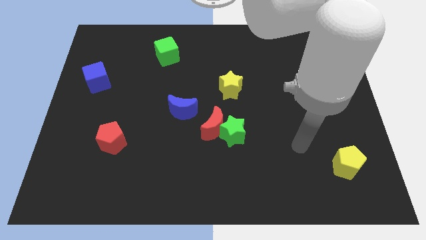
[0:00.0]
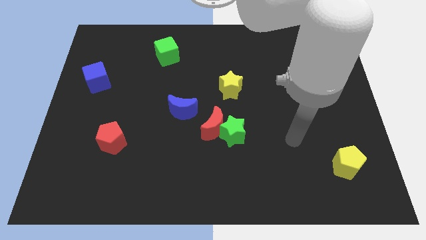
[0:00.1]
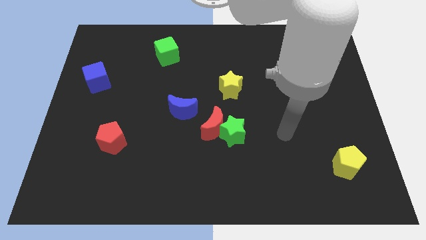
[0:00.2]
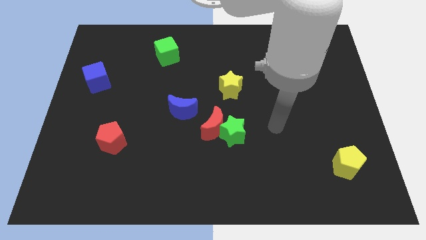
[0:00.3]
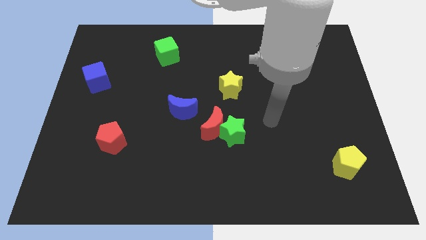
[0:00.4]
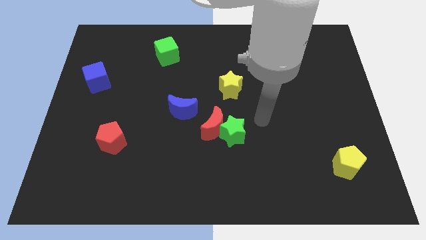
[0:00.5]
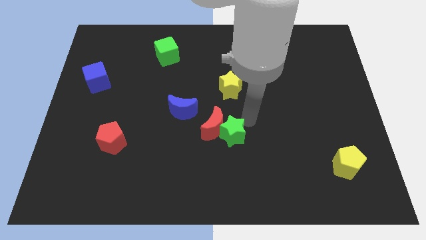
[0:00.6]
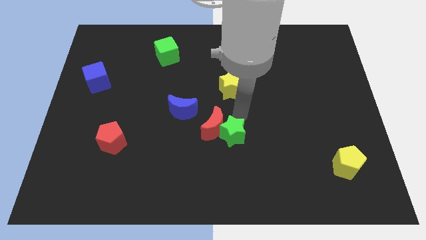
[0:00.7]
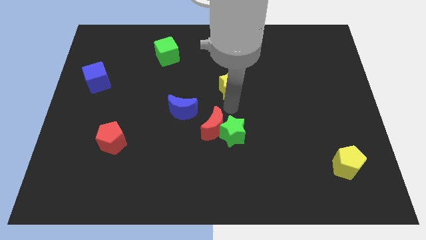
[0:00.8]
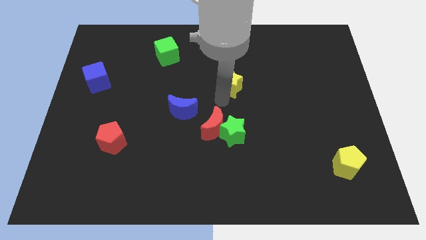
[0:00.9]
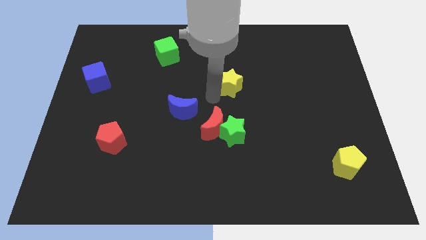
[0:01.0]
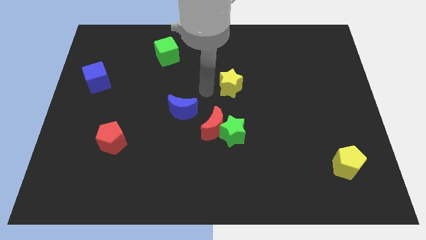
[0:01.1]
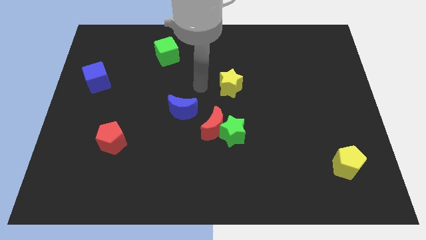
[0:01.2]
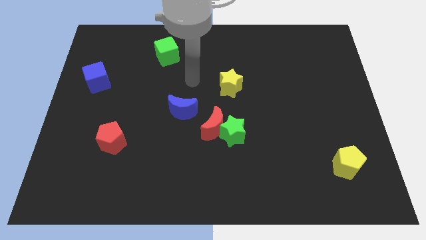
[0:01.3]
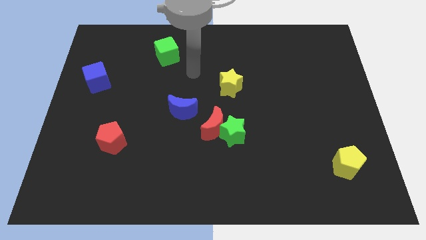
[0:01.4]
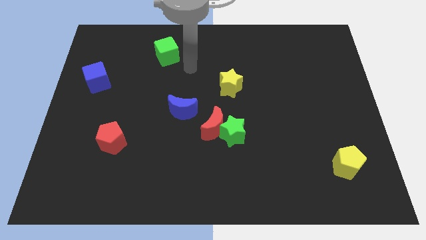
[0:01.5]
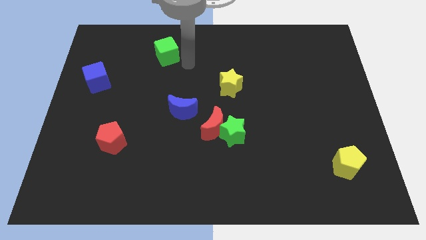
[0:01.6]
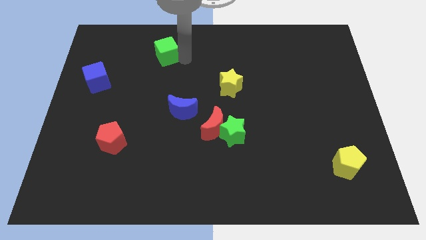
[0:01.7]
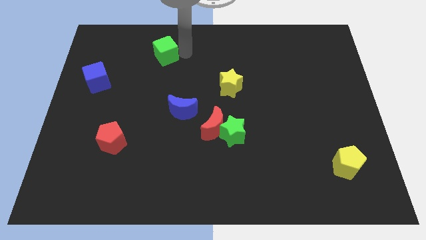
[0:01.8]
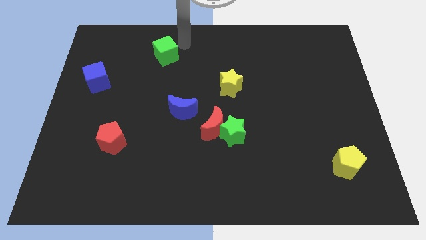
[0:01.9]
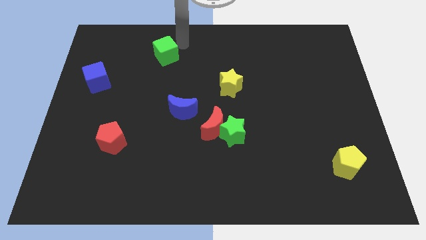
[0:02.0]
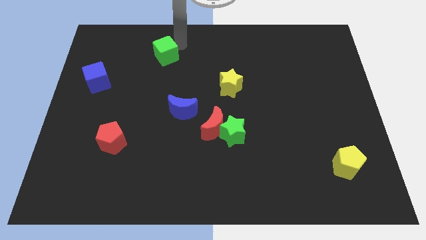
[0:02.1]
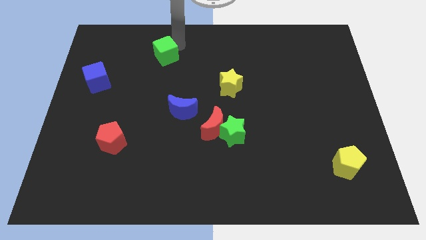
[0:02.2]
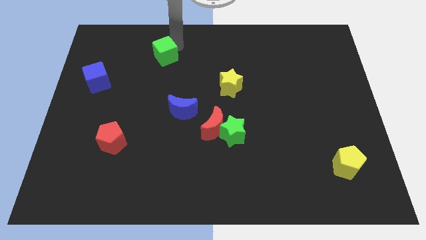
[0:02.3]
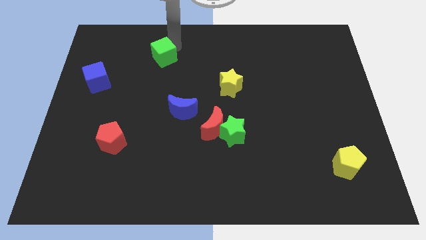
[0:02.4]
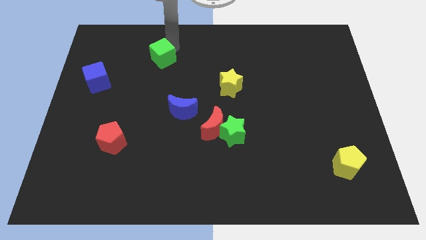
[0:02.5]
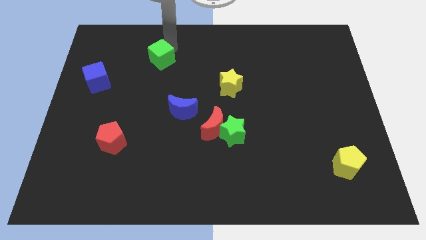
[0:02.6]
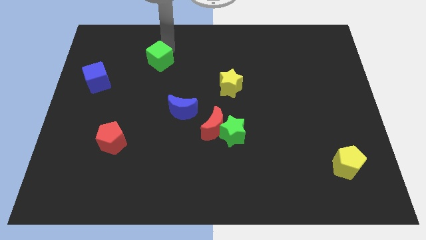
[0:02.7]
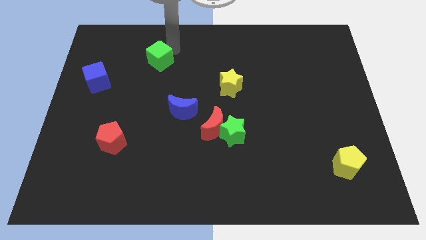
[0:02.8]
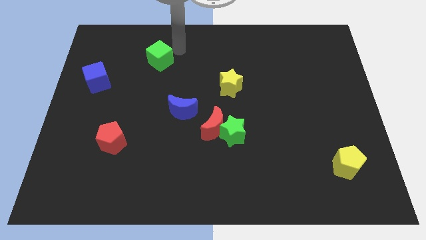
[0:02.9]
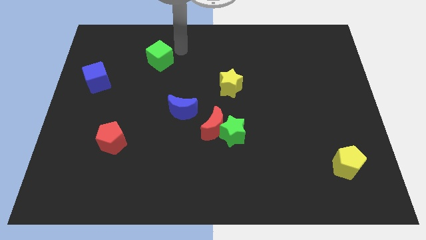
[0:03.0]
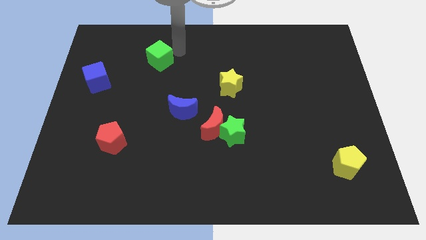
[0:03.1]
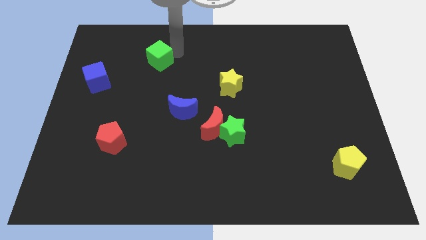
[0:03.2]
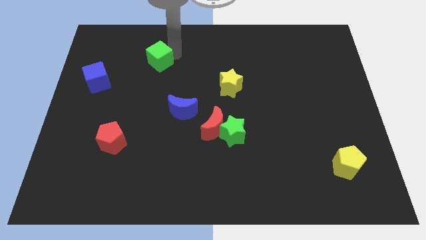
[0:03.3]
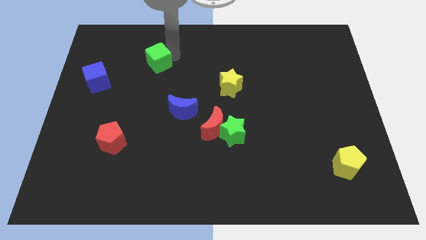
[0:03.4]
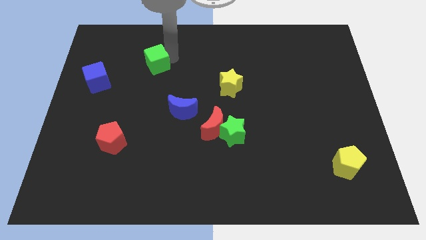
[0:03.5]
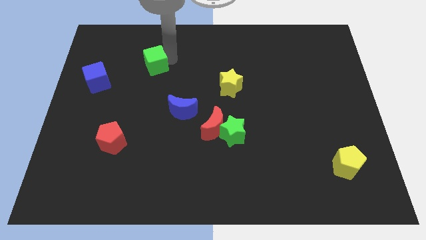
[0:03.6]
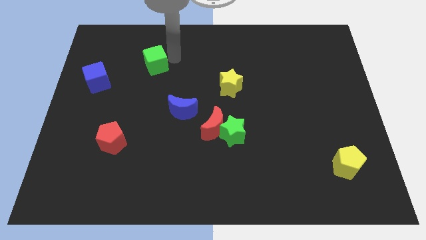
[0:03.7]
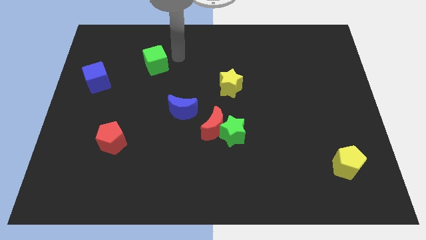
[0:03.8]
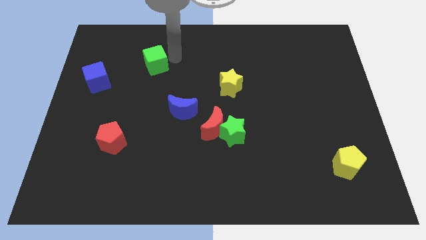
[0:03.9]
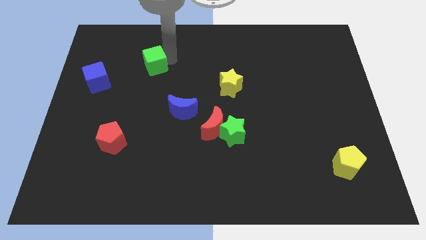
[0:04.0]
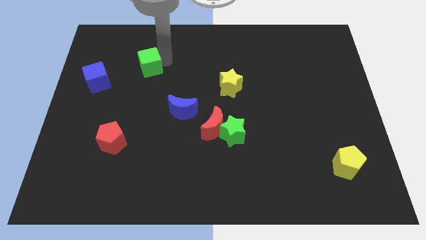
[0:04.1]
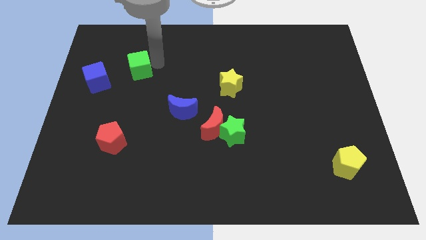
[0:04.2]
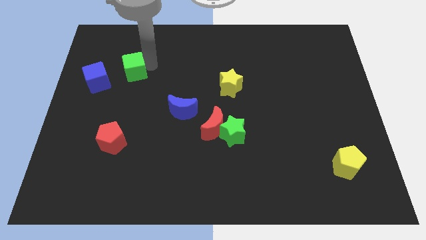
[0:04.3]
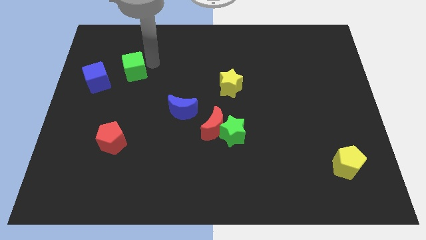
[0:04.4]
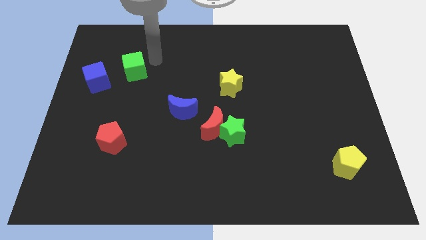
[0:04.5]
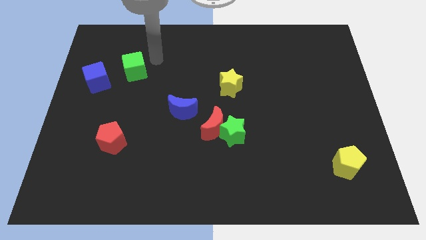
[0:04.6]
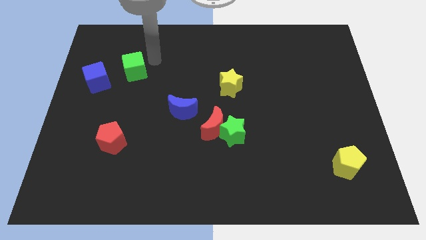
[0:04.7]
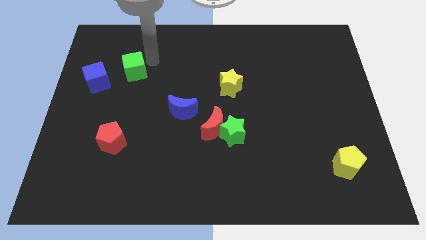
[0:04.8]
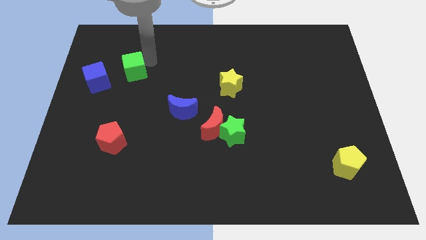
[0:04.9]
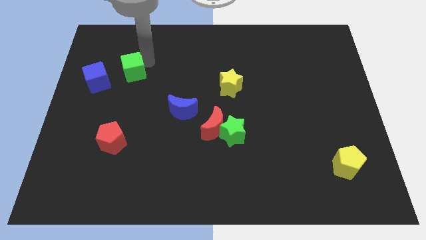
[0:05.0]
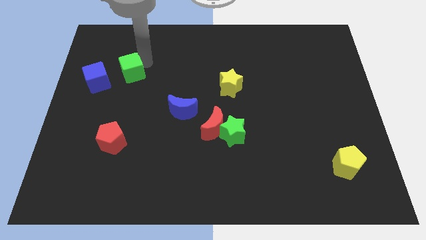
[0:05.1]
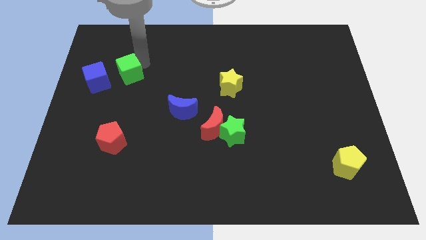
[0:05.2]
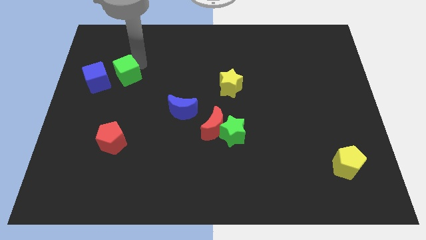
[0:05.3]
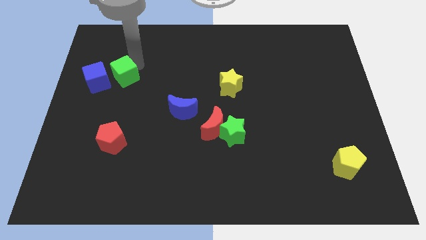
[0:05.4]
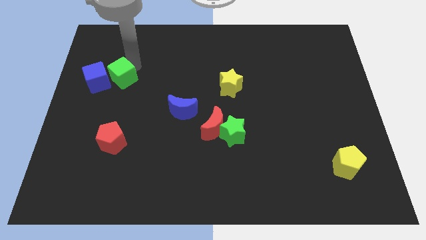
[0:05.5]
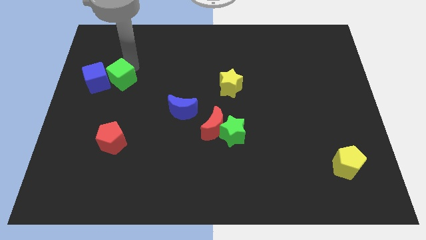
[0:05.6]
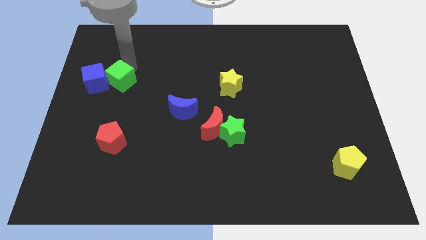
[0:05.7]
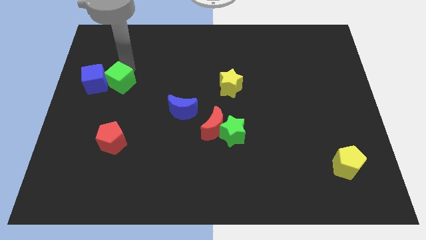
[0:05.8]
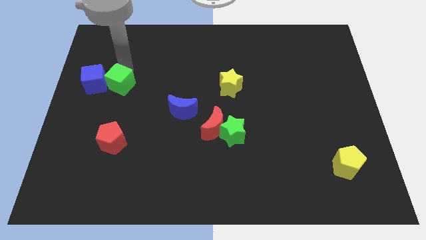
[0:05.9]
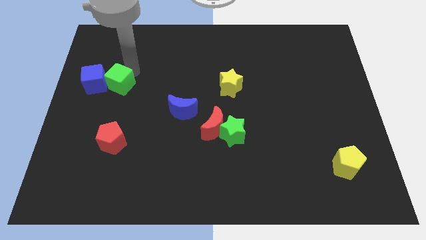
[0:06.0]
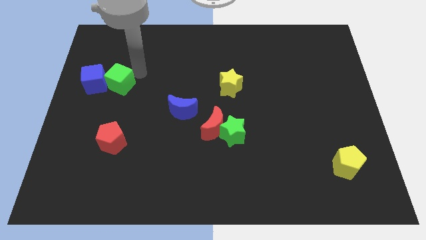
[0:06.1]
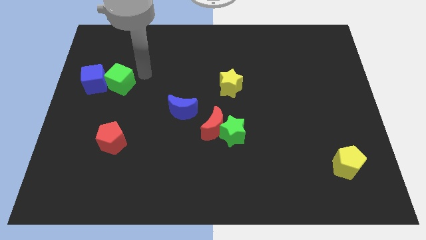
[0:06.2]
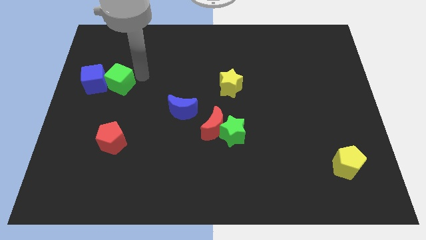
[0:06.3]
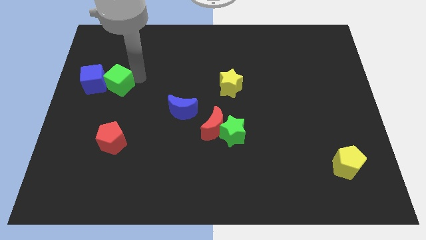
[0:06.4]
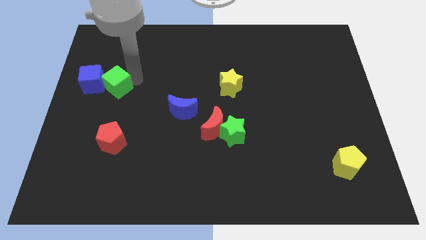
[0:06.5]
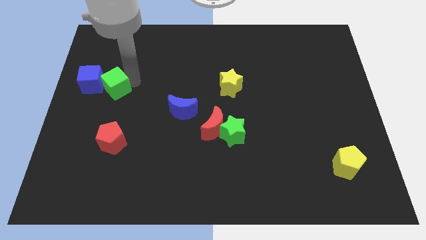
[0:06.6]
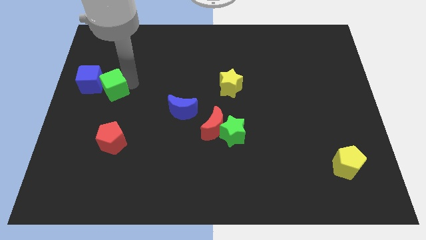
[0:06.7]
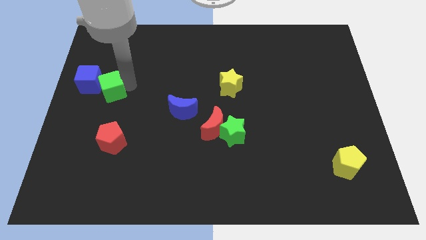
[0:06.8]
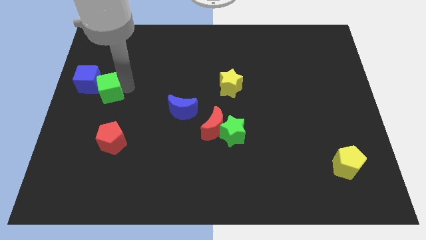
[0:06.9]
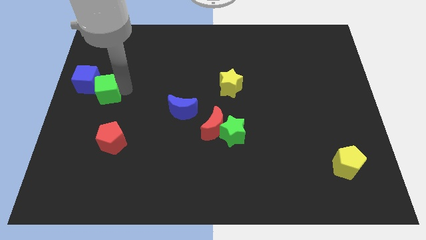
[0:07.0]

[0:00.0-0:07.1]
push the green cube to the center left

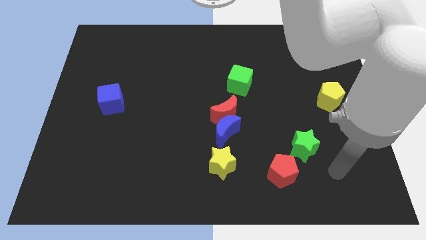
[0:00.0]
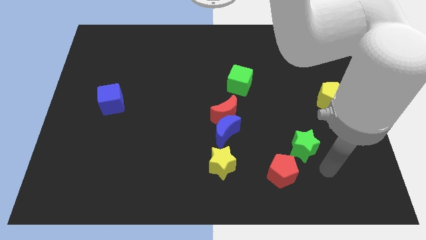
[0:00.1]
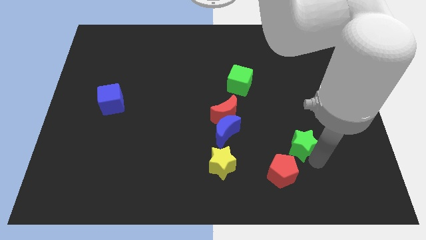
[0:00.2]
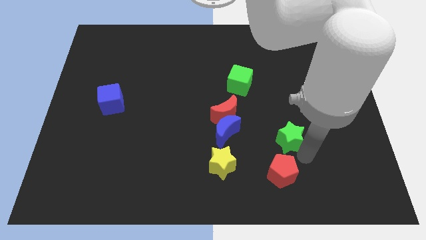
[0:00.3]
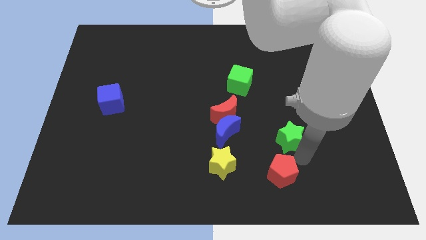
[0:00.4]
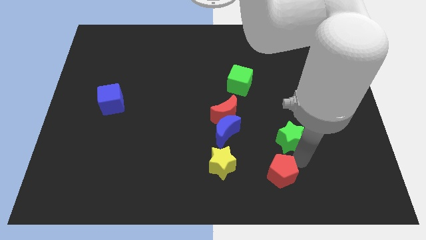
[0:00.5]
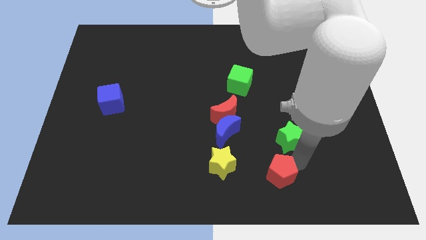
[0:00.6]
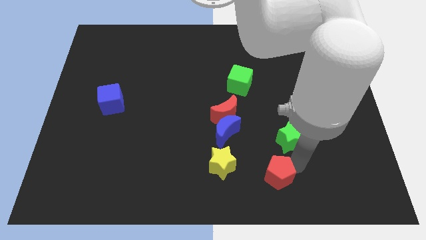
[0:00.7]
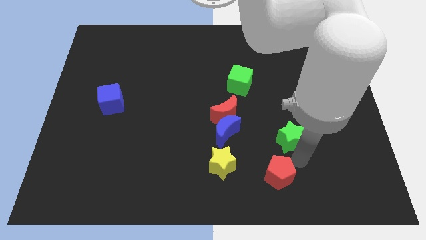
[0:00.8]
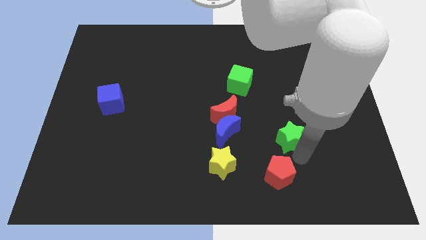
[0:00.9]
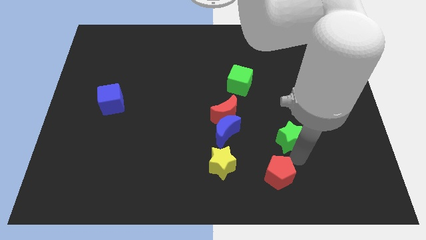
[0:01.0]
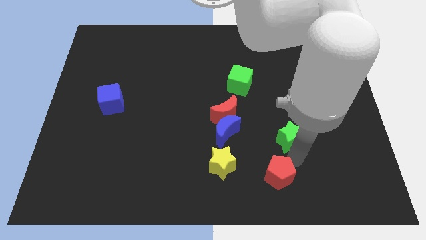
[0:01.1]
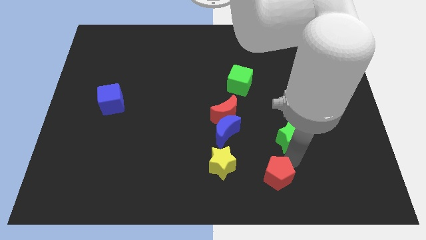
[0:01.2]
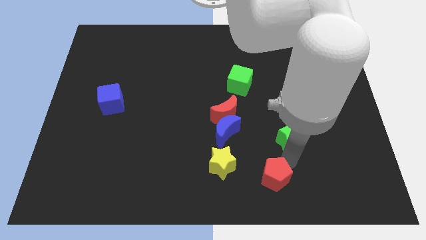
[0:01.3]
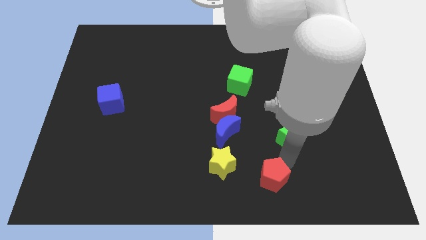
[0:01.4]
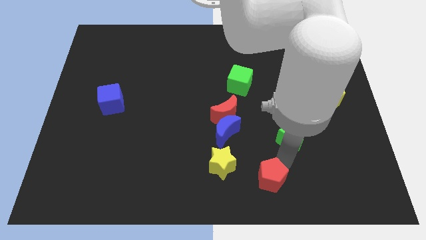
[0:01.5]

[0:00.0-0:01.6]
slide the red pentagon to the bottom
